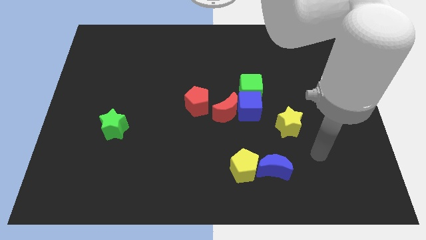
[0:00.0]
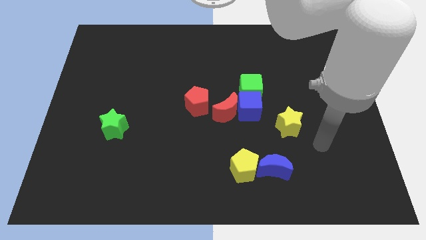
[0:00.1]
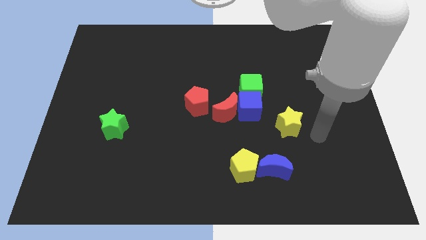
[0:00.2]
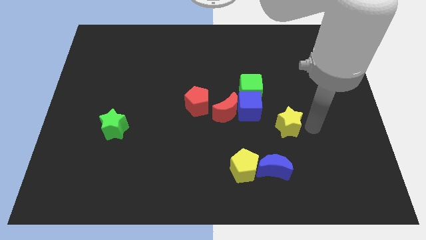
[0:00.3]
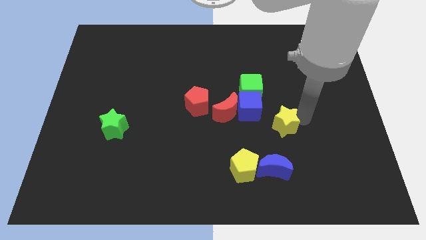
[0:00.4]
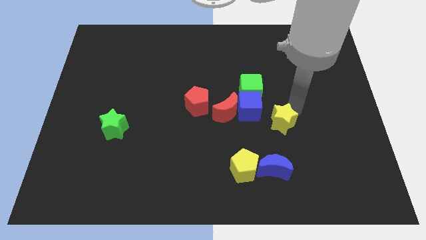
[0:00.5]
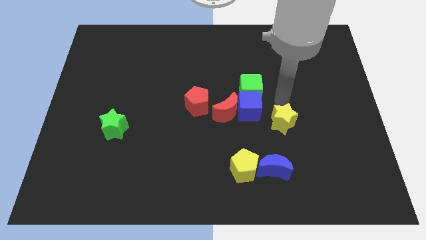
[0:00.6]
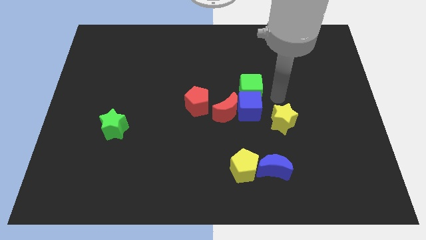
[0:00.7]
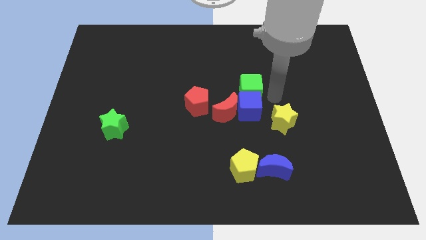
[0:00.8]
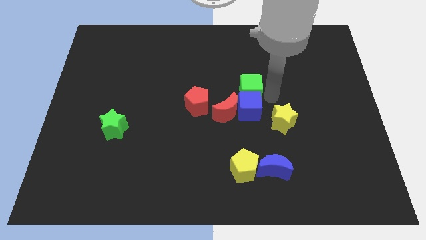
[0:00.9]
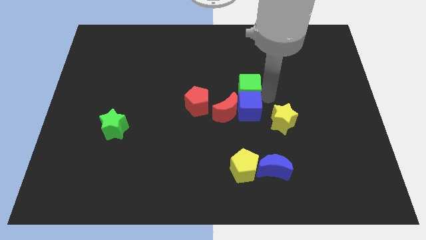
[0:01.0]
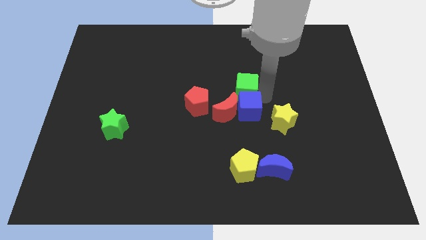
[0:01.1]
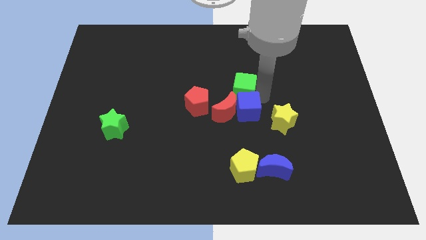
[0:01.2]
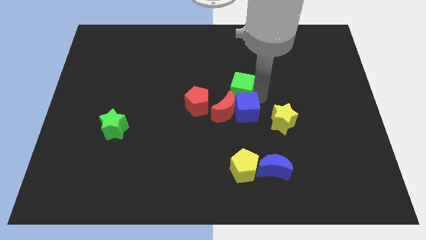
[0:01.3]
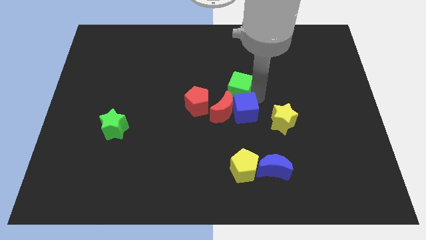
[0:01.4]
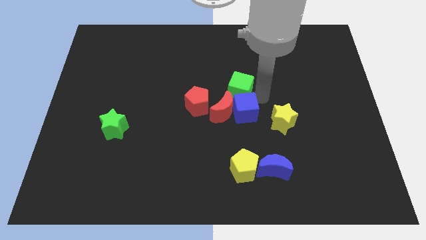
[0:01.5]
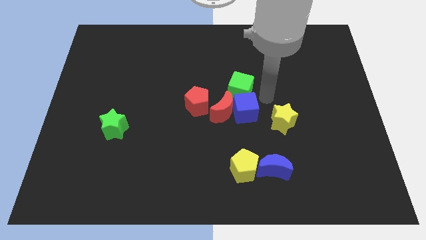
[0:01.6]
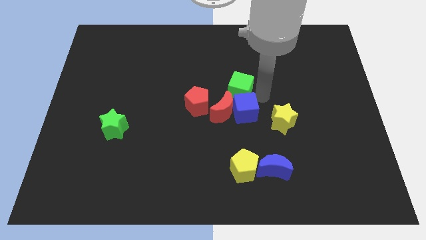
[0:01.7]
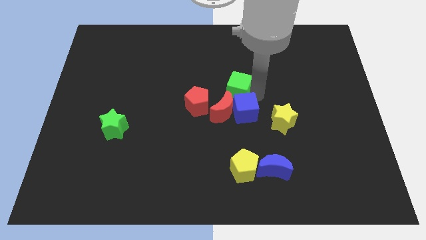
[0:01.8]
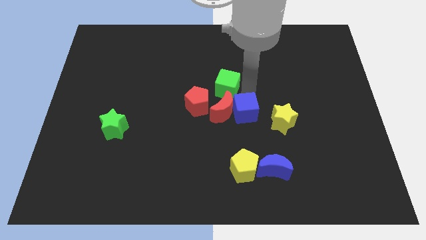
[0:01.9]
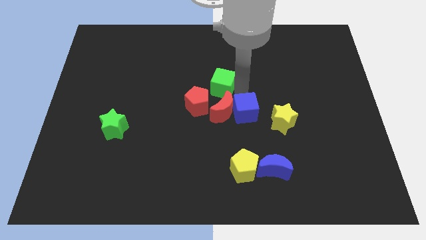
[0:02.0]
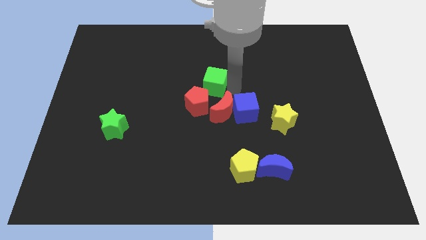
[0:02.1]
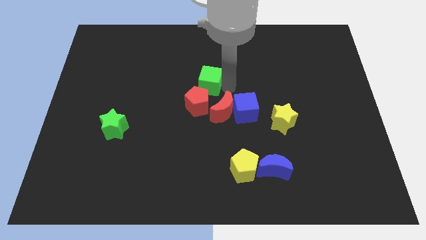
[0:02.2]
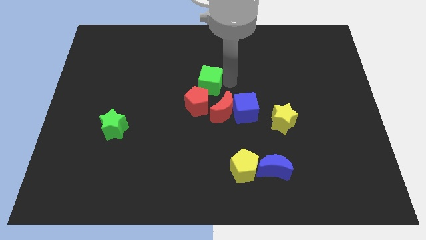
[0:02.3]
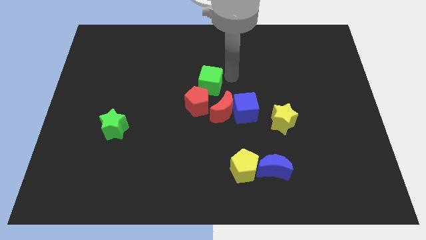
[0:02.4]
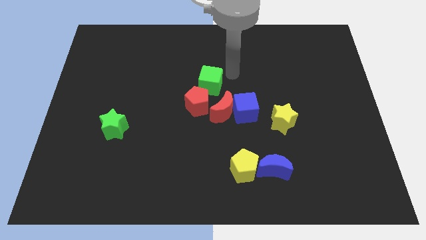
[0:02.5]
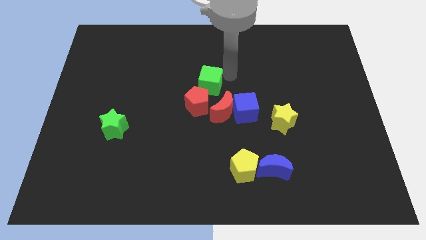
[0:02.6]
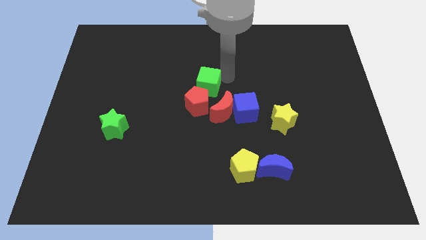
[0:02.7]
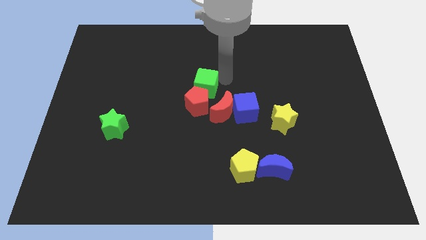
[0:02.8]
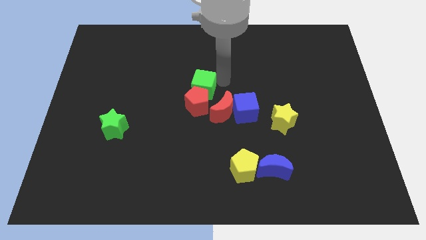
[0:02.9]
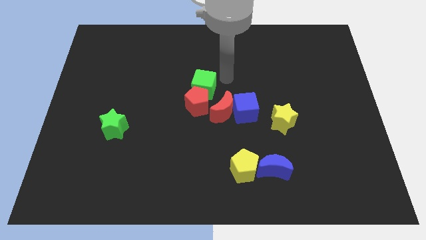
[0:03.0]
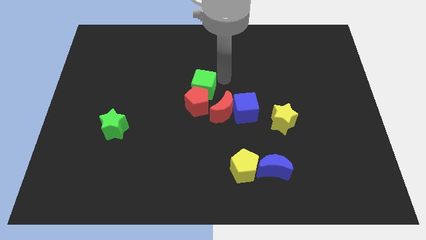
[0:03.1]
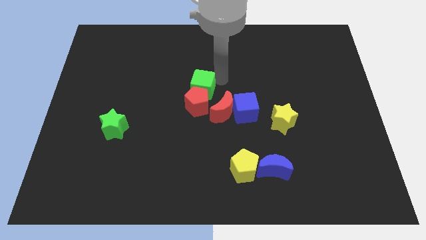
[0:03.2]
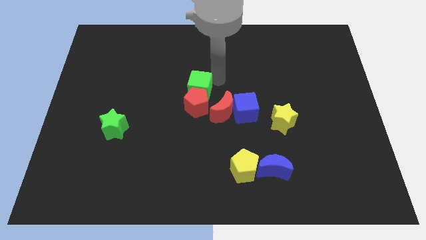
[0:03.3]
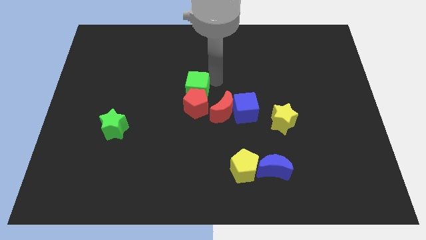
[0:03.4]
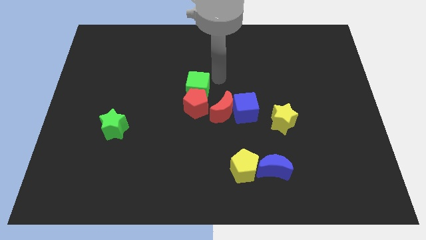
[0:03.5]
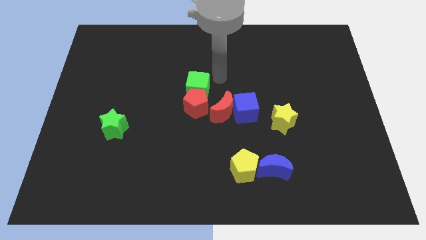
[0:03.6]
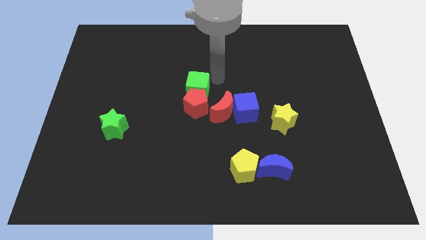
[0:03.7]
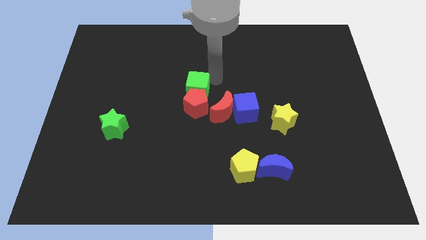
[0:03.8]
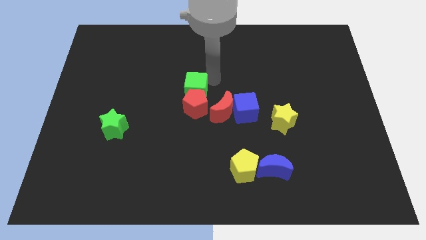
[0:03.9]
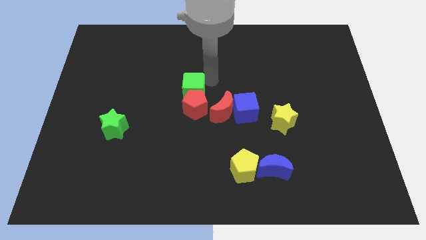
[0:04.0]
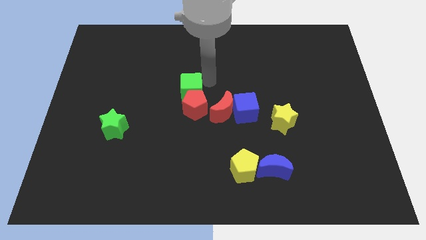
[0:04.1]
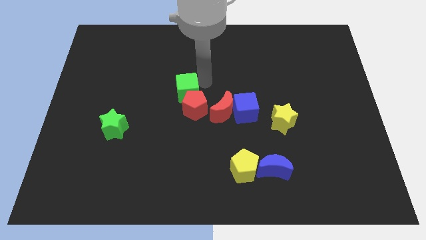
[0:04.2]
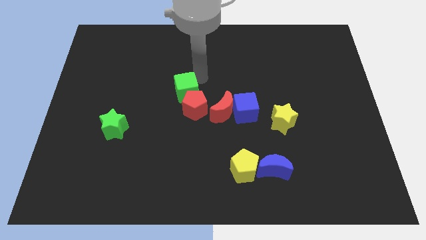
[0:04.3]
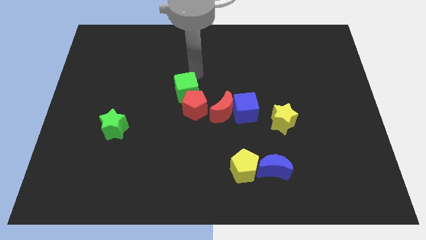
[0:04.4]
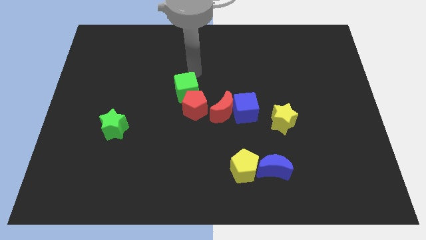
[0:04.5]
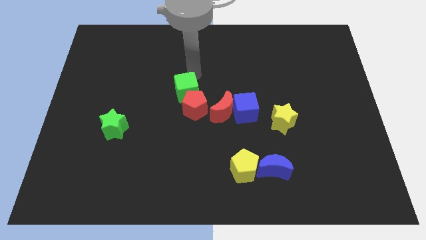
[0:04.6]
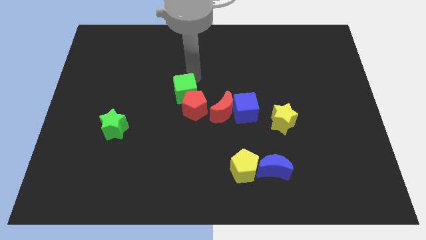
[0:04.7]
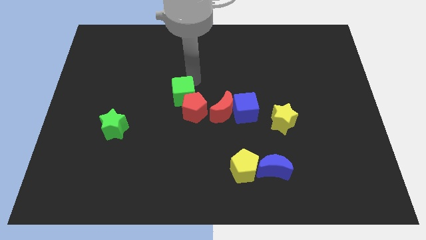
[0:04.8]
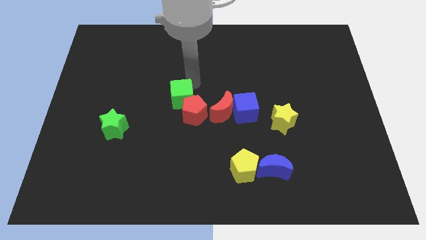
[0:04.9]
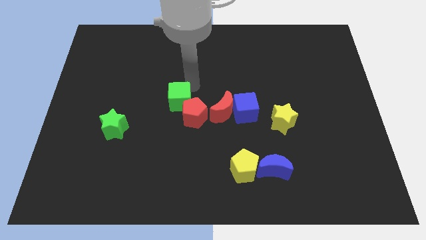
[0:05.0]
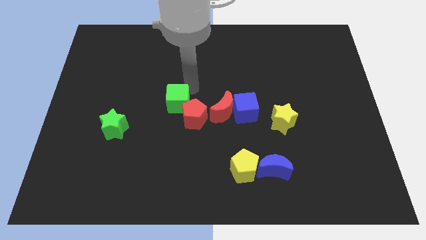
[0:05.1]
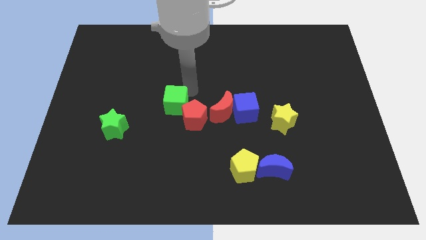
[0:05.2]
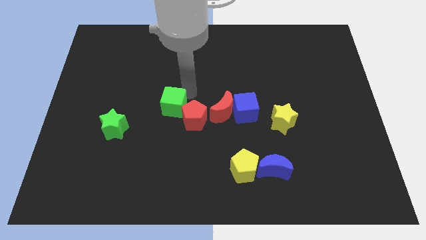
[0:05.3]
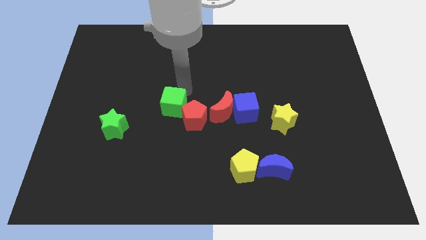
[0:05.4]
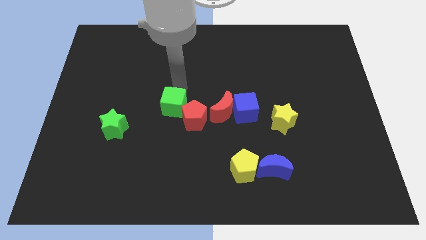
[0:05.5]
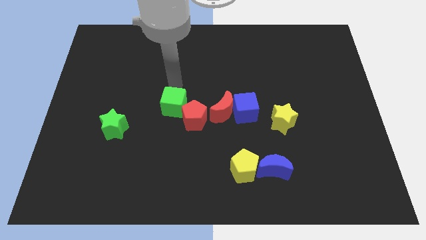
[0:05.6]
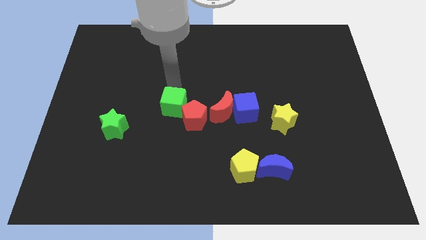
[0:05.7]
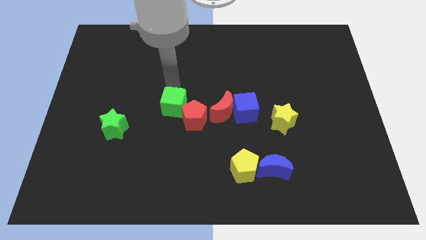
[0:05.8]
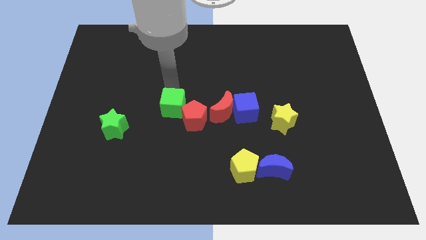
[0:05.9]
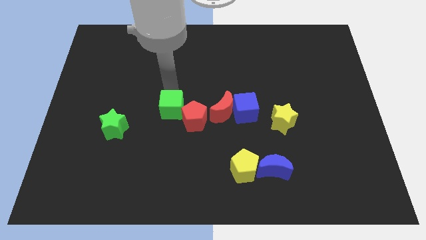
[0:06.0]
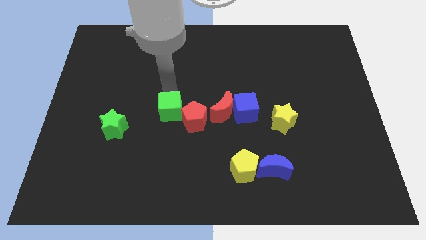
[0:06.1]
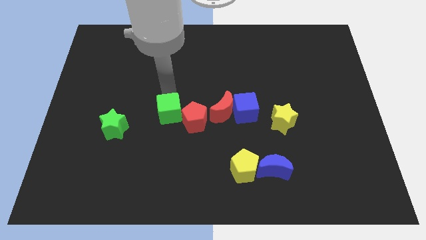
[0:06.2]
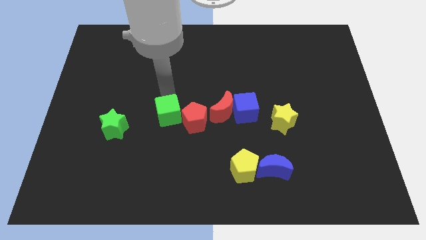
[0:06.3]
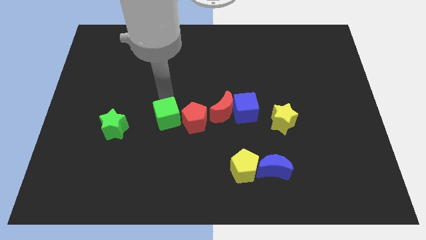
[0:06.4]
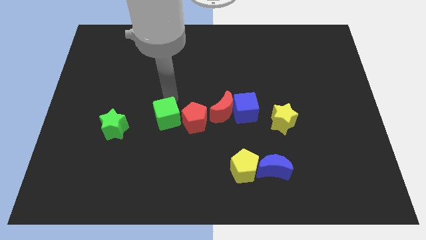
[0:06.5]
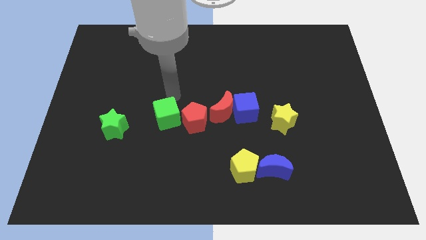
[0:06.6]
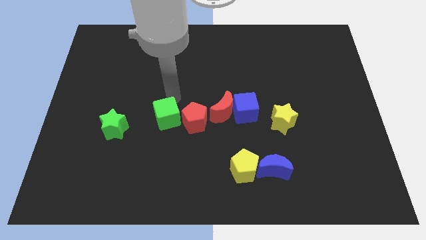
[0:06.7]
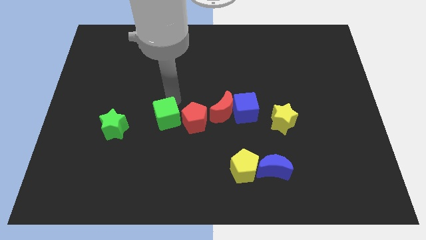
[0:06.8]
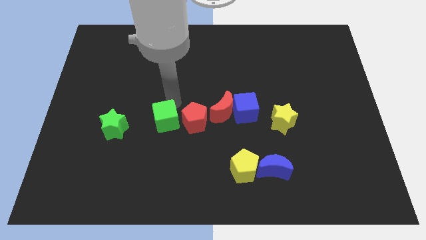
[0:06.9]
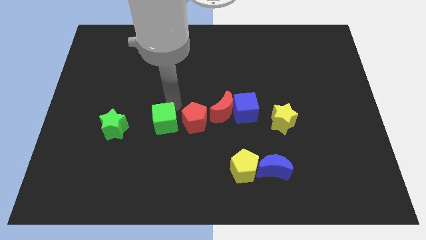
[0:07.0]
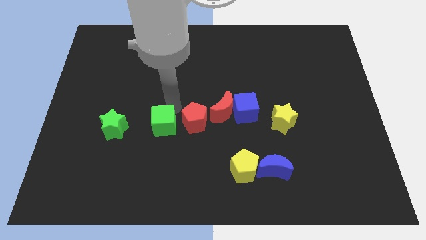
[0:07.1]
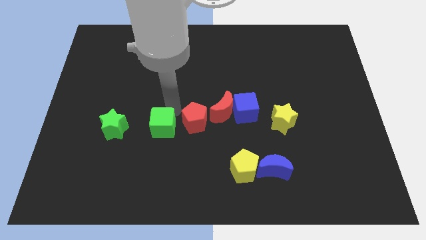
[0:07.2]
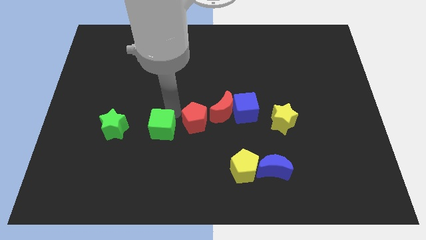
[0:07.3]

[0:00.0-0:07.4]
move the green cube down and then to the left

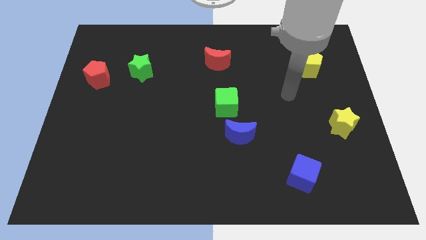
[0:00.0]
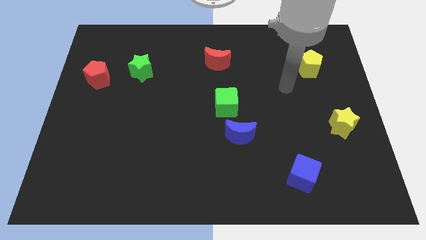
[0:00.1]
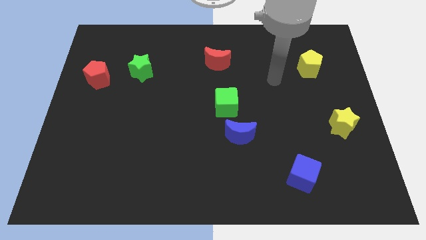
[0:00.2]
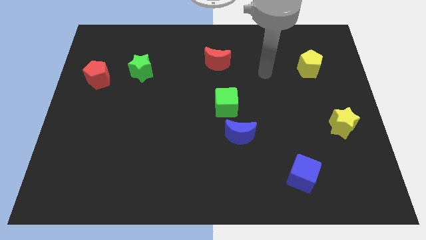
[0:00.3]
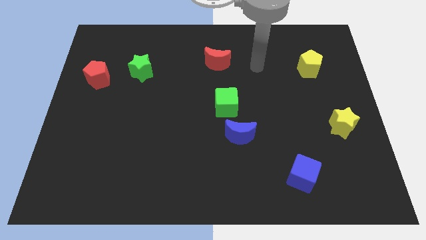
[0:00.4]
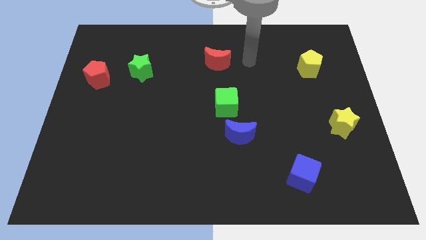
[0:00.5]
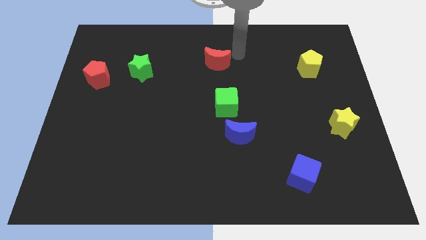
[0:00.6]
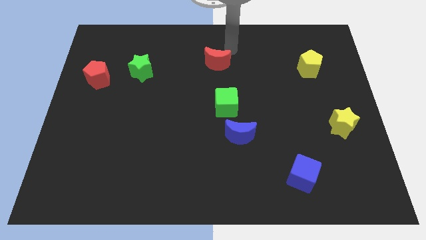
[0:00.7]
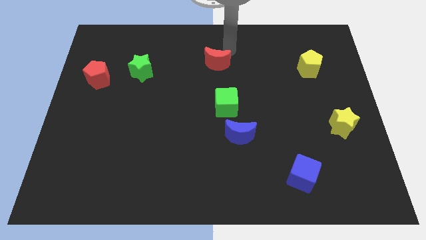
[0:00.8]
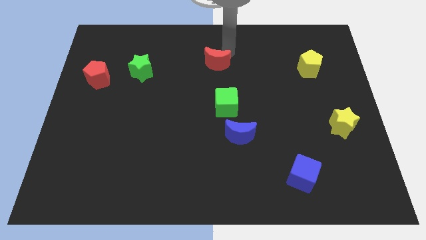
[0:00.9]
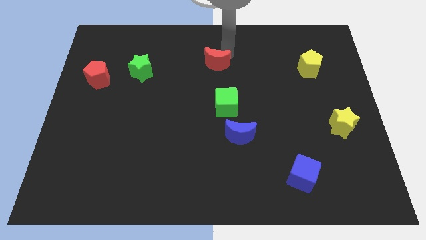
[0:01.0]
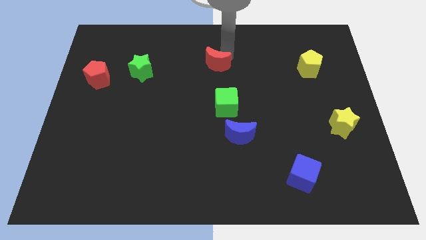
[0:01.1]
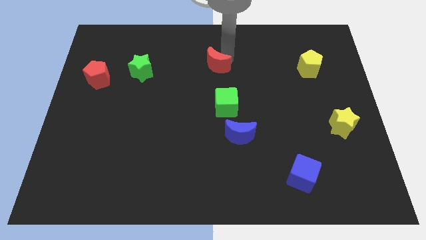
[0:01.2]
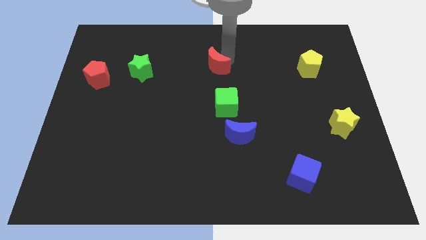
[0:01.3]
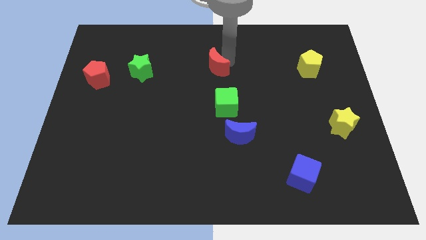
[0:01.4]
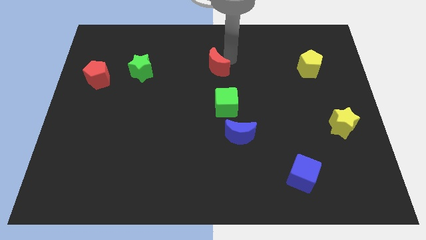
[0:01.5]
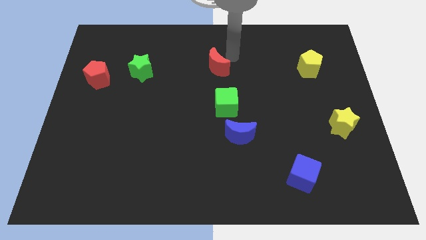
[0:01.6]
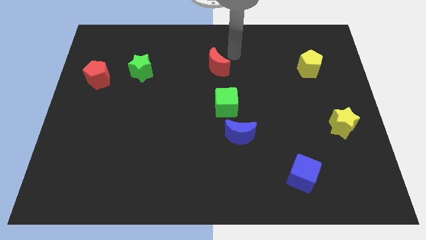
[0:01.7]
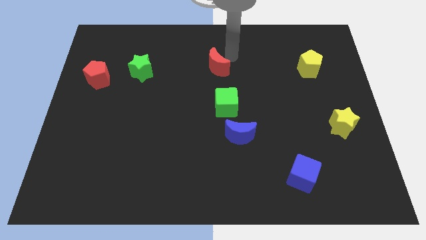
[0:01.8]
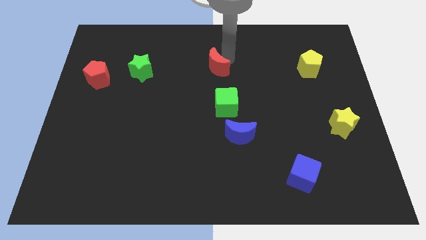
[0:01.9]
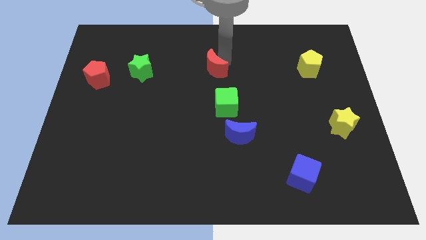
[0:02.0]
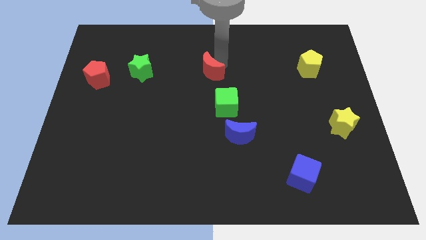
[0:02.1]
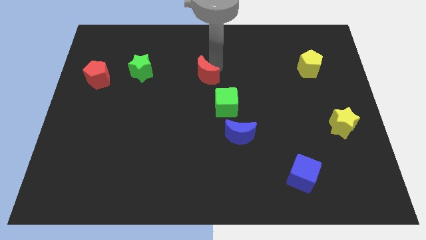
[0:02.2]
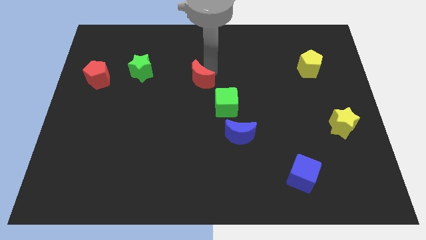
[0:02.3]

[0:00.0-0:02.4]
move the red moon somewhat down and then to the left
